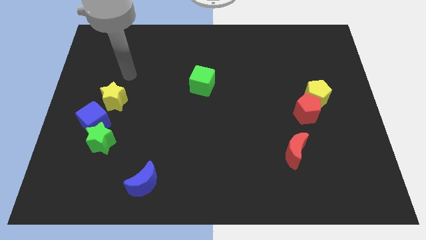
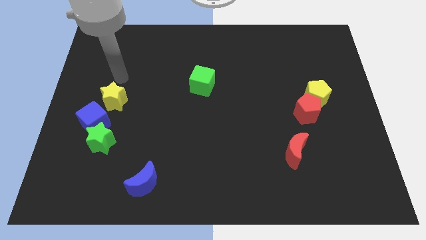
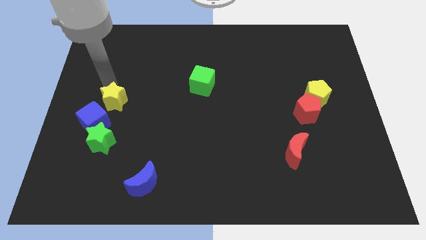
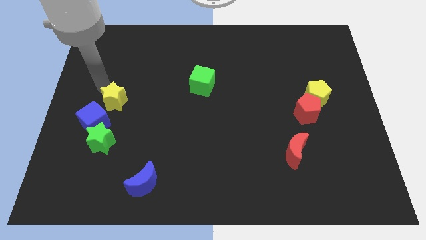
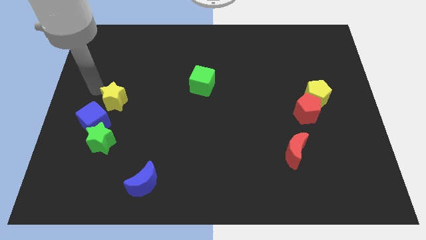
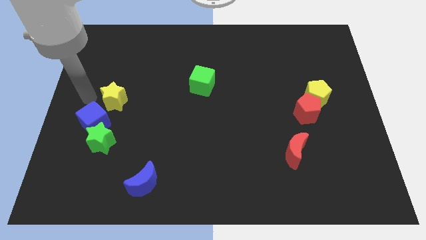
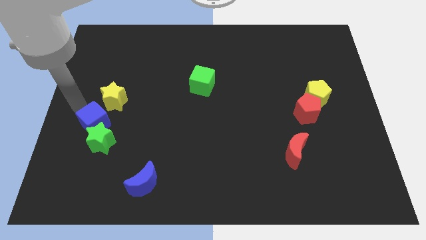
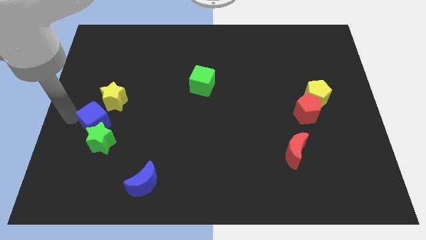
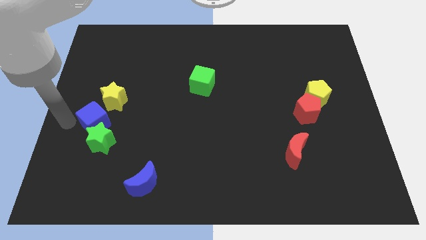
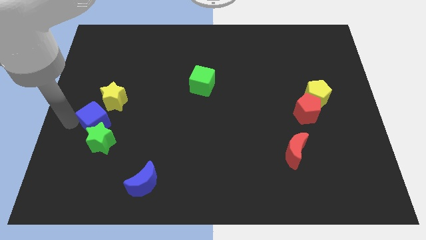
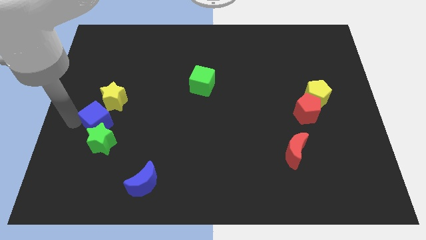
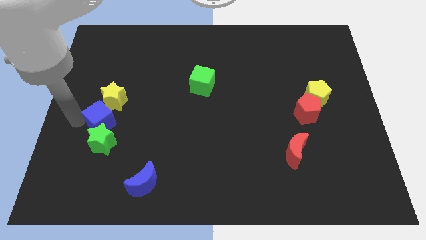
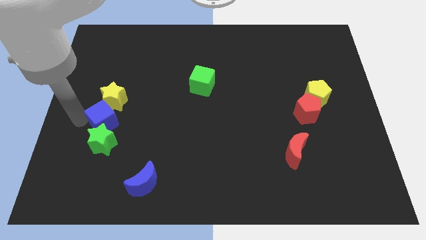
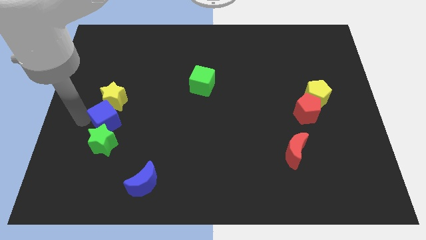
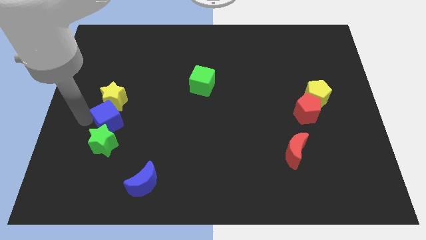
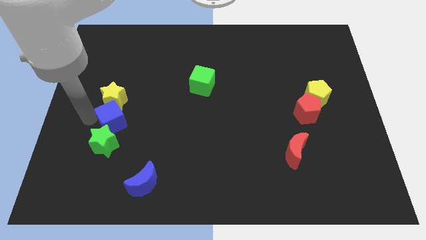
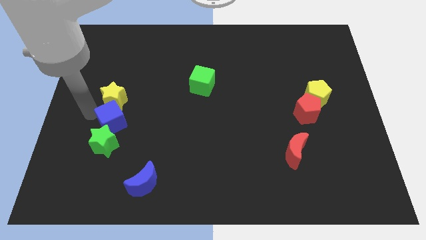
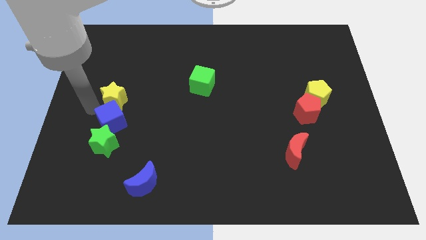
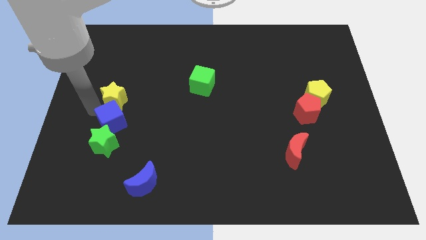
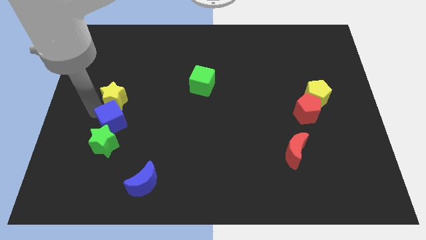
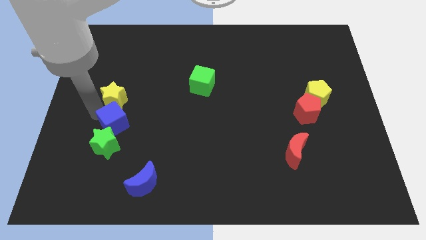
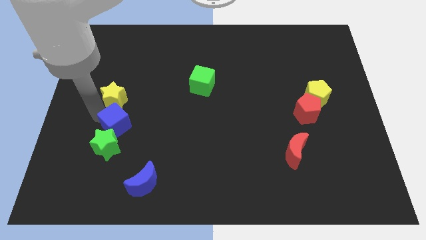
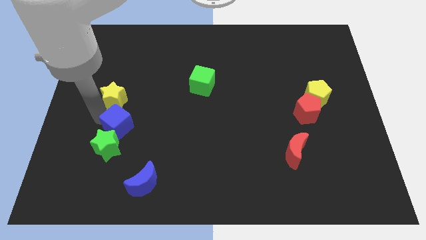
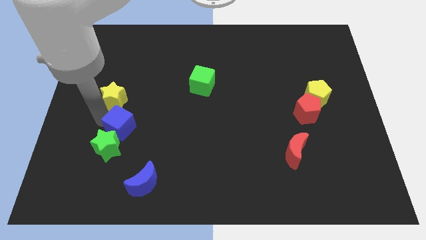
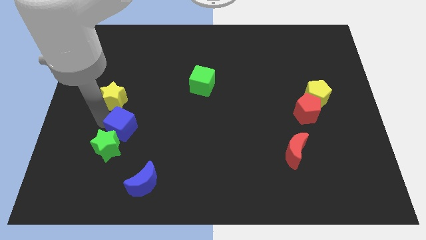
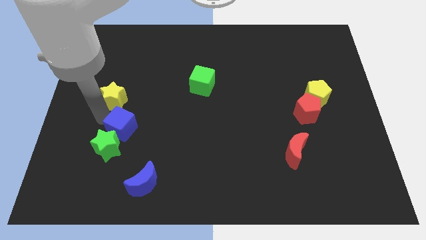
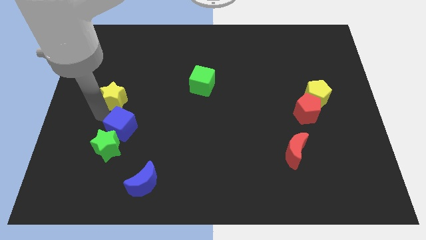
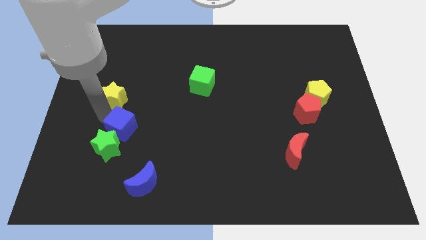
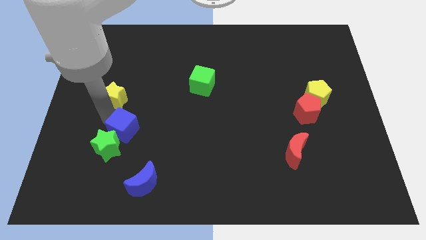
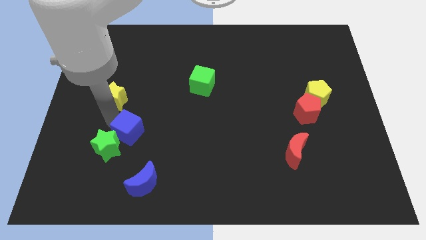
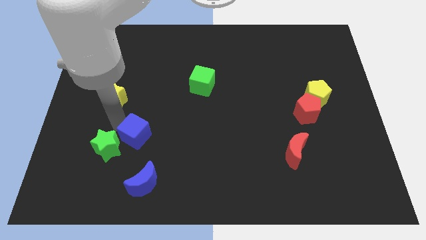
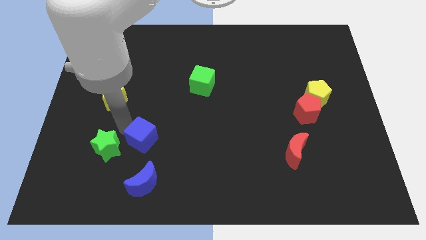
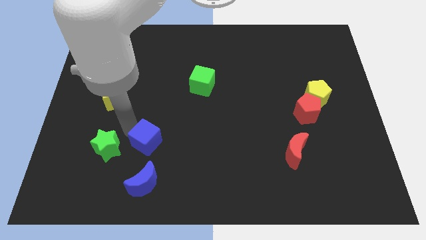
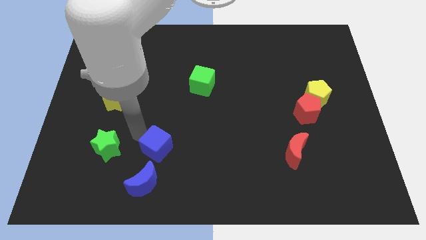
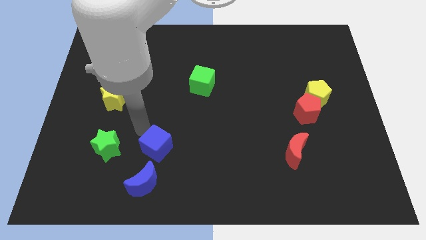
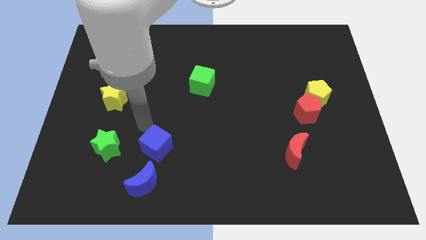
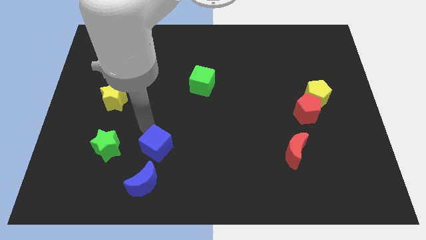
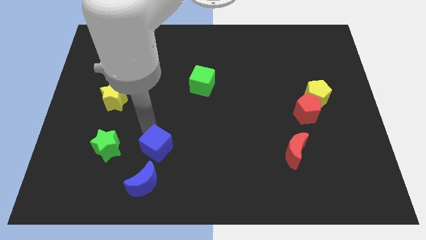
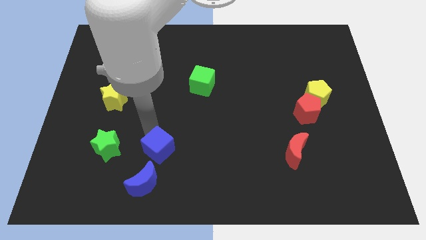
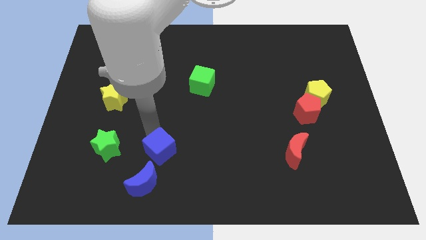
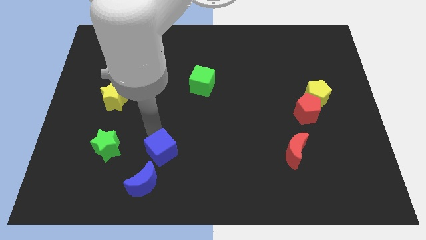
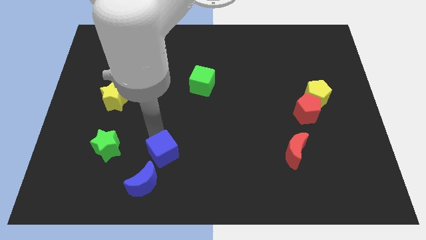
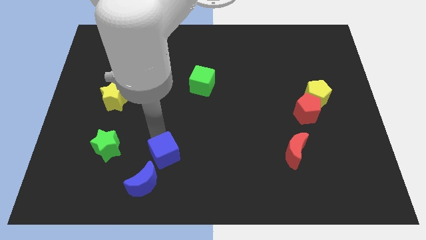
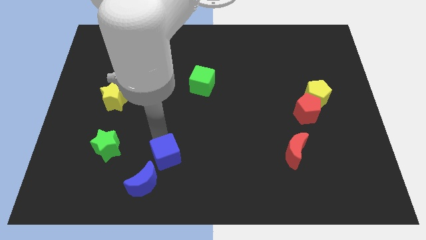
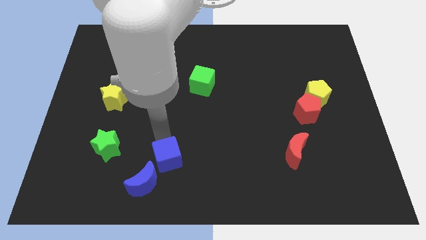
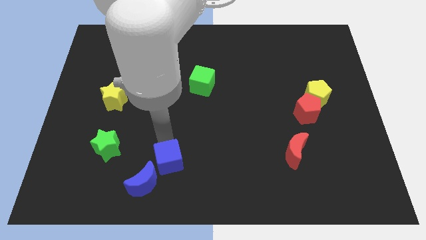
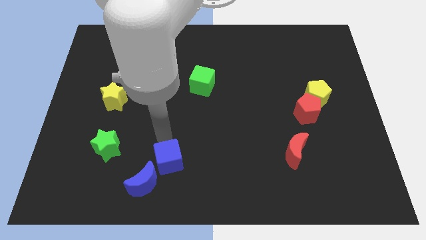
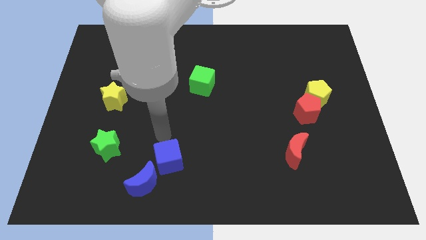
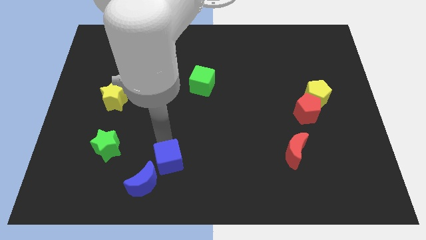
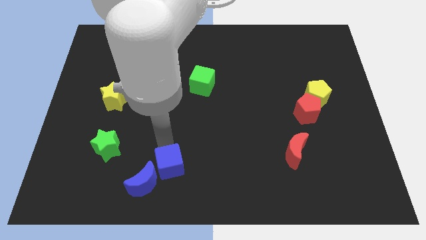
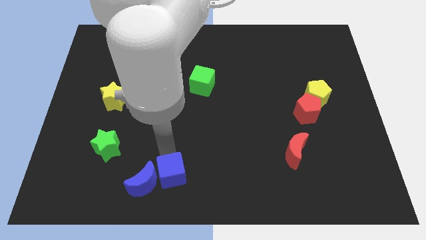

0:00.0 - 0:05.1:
put the blue cube to the bottom side

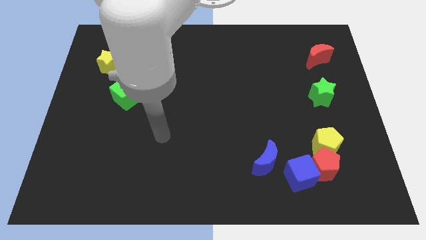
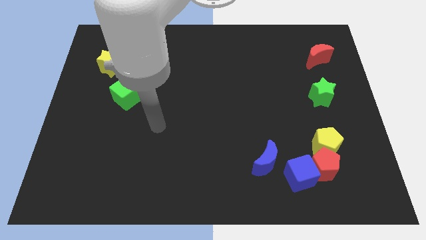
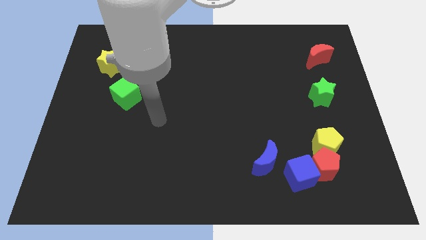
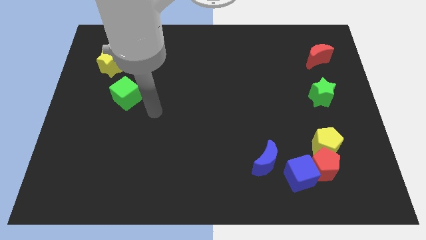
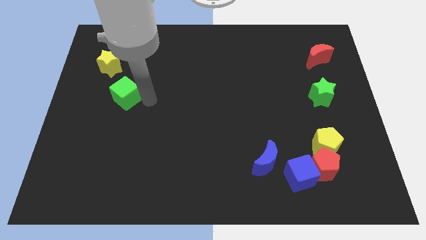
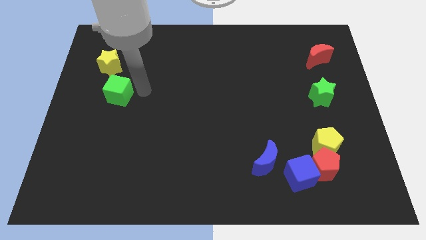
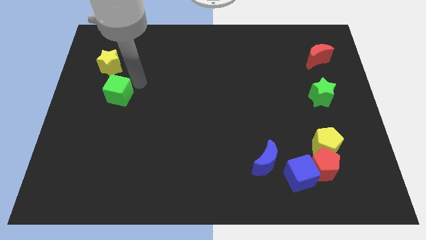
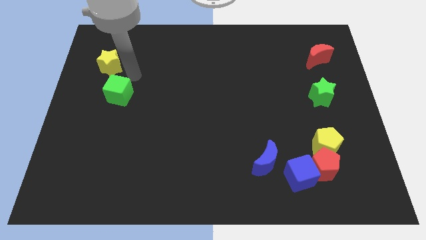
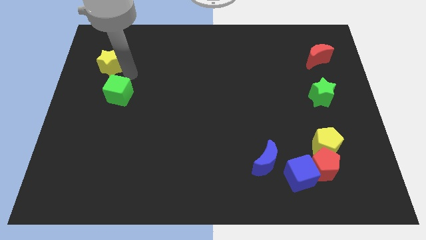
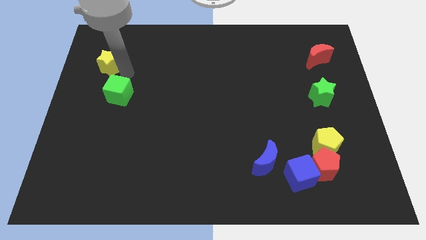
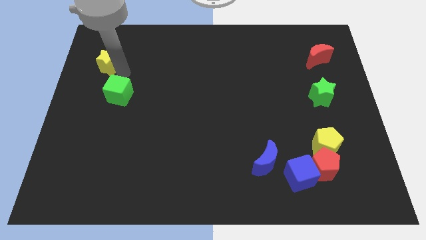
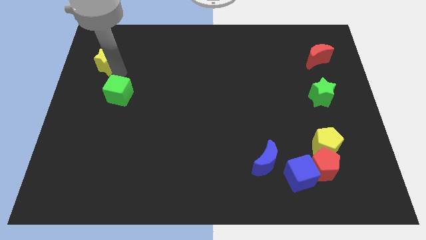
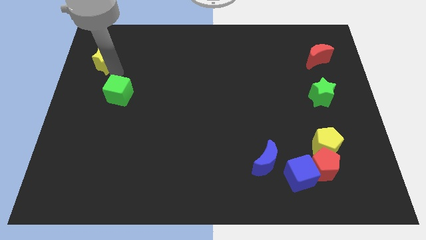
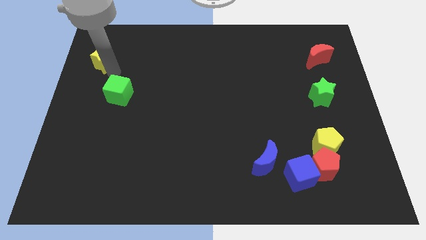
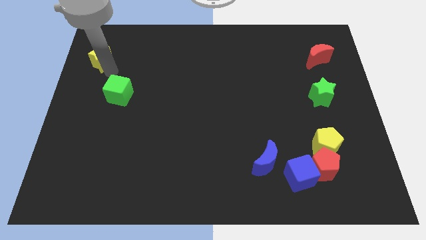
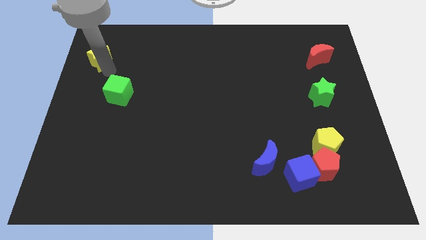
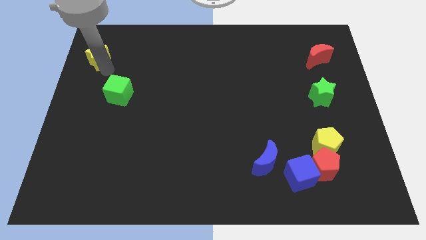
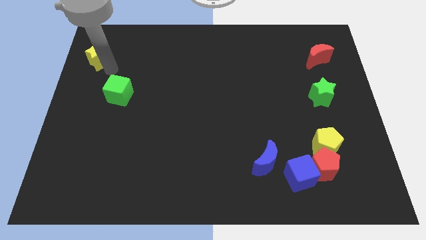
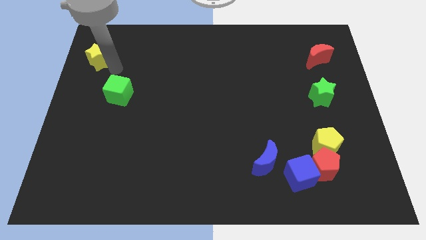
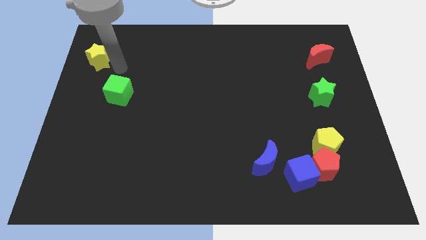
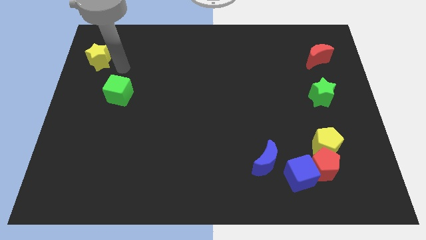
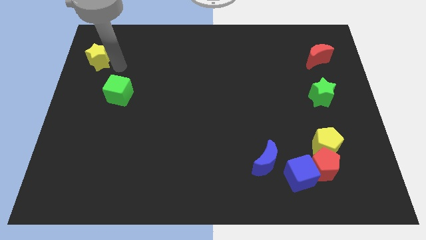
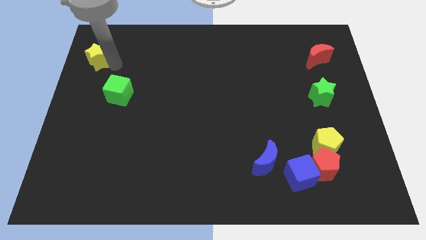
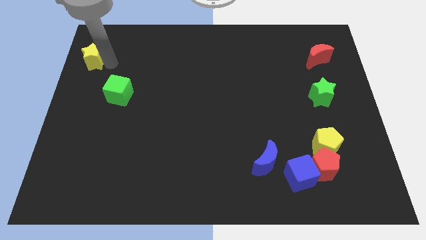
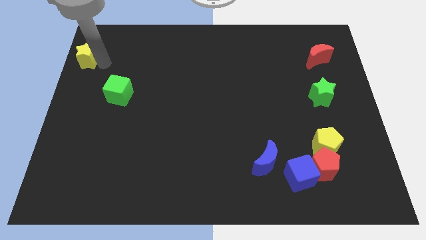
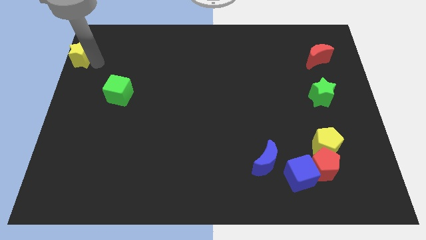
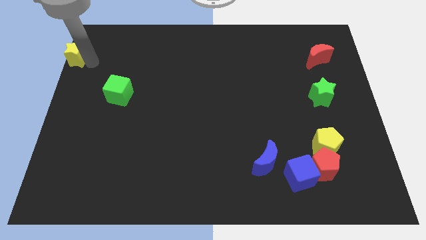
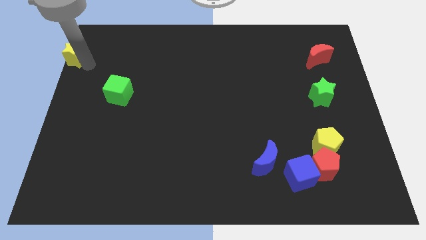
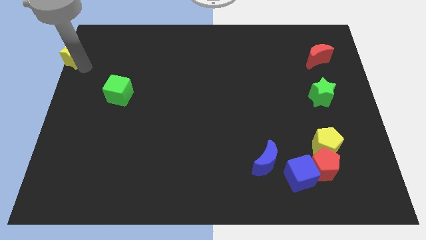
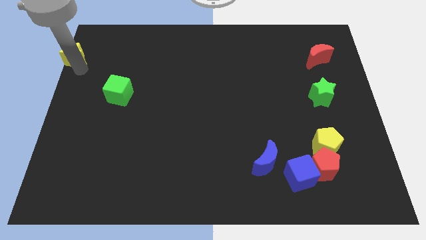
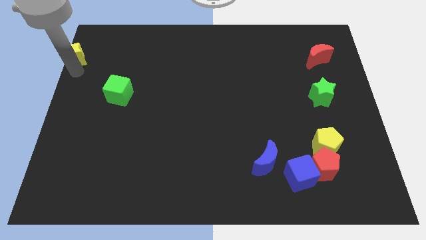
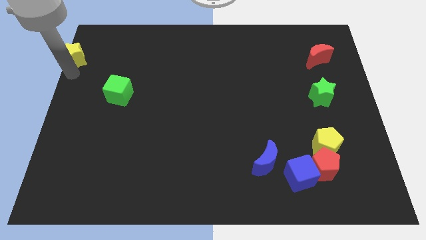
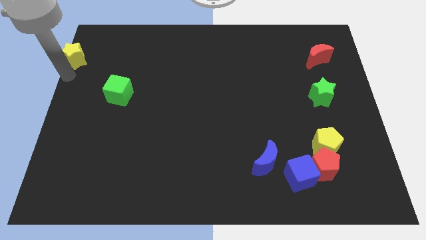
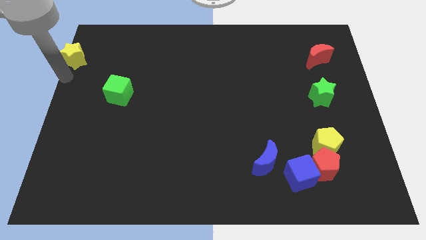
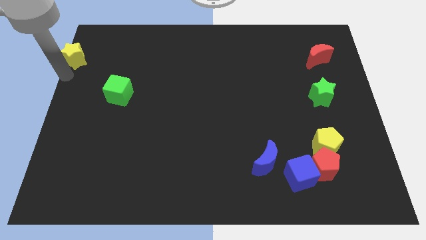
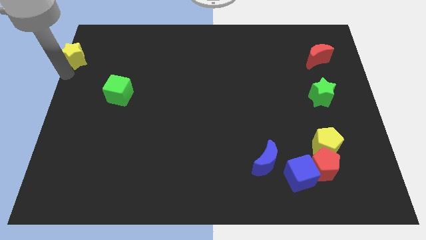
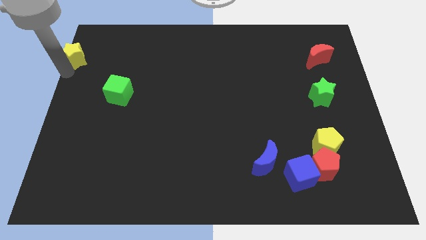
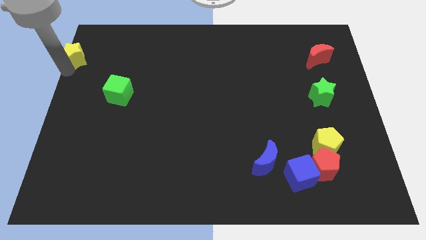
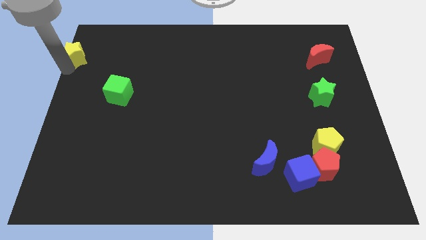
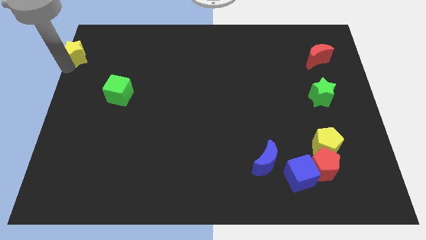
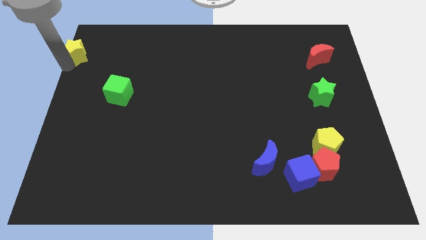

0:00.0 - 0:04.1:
put the yellow star to the top left corner
